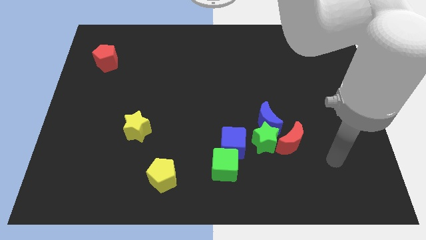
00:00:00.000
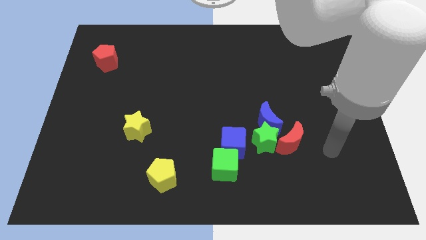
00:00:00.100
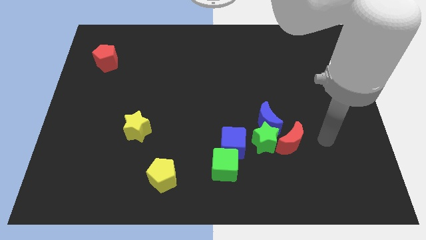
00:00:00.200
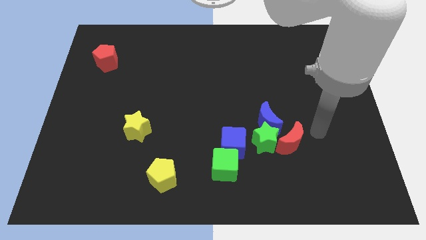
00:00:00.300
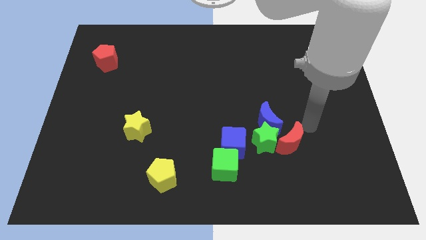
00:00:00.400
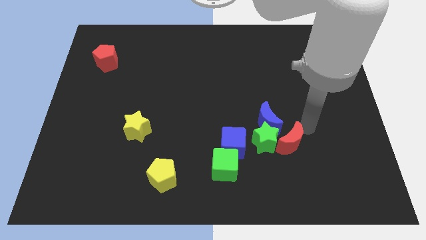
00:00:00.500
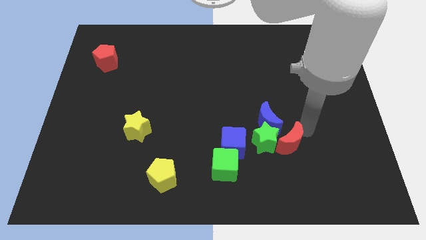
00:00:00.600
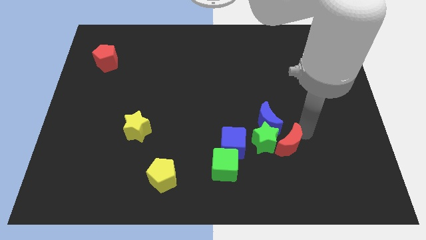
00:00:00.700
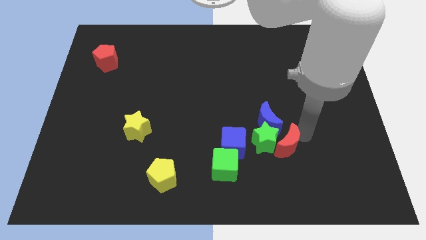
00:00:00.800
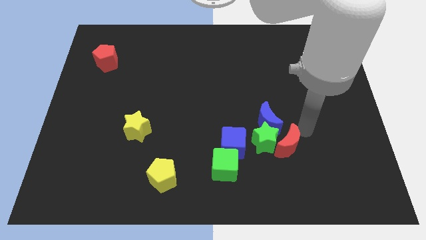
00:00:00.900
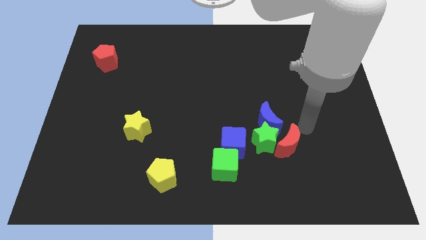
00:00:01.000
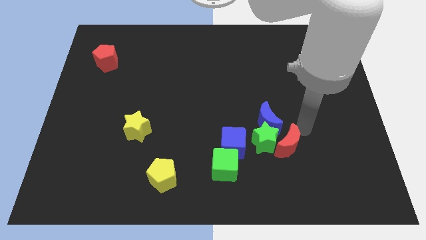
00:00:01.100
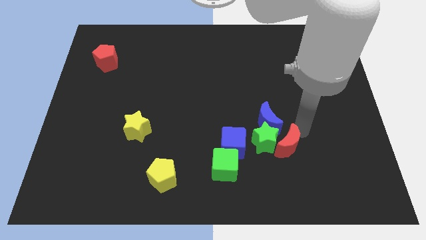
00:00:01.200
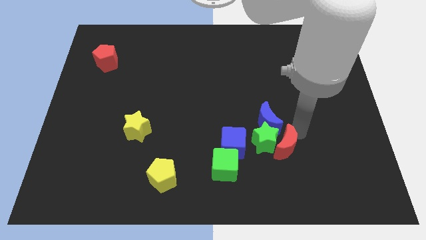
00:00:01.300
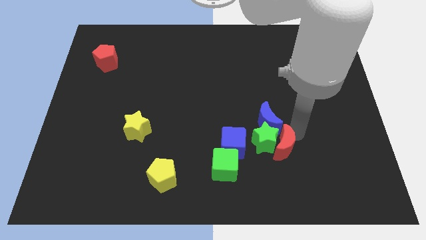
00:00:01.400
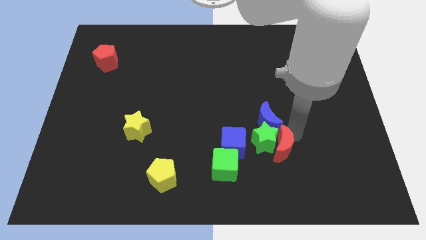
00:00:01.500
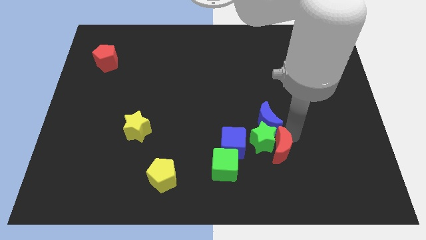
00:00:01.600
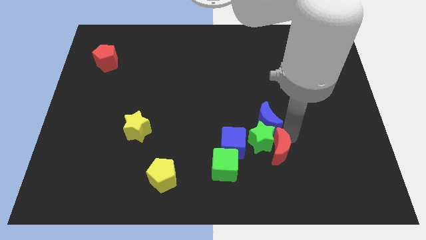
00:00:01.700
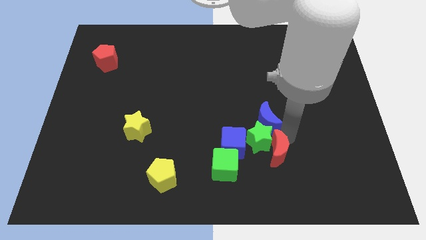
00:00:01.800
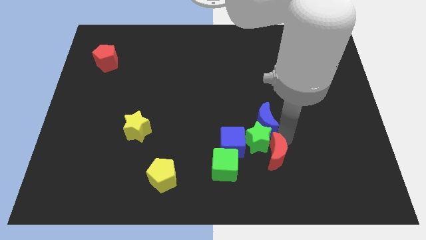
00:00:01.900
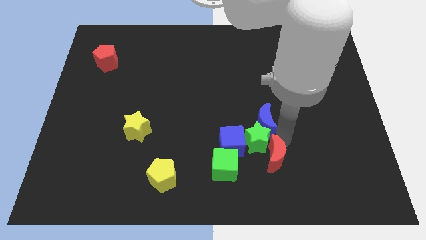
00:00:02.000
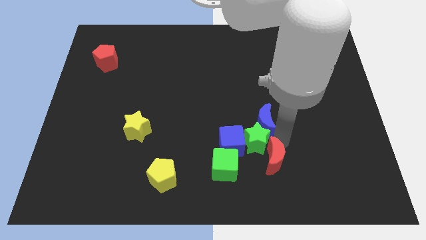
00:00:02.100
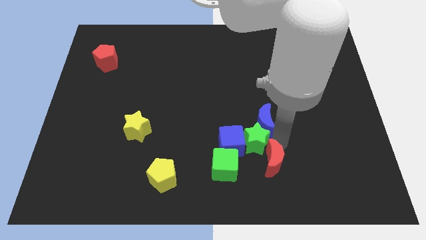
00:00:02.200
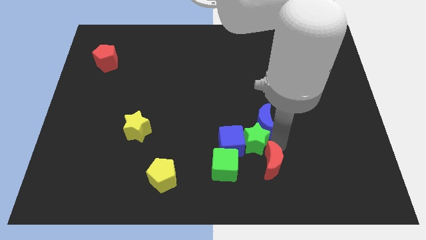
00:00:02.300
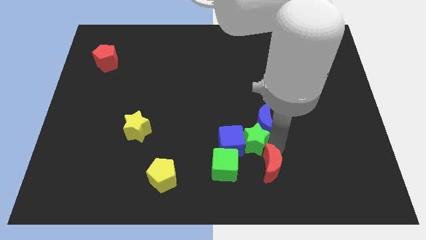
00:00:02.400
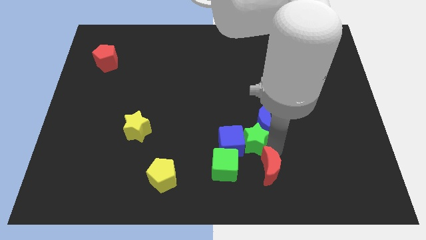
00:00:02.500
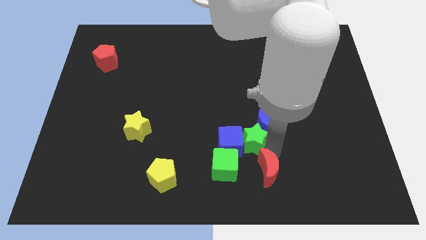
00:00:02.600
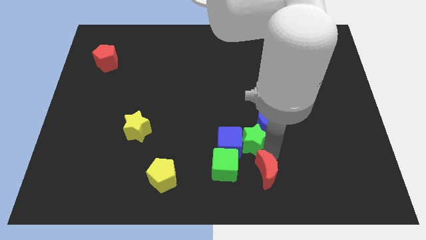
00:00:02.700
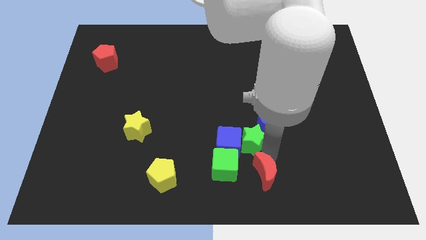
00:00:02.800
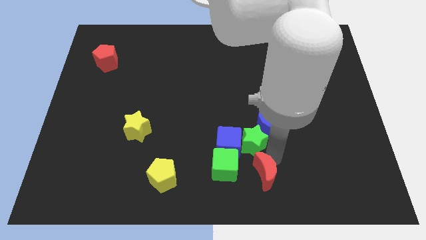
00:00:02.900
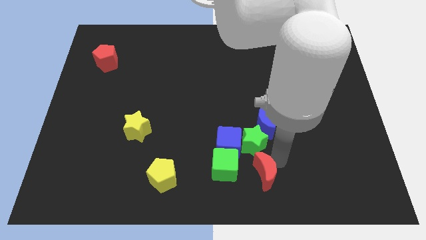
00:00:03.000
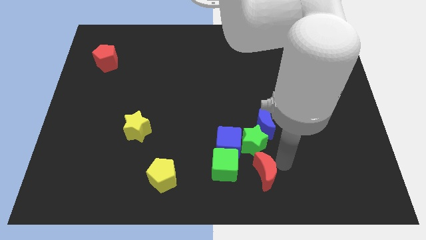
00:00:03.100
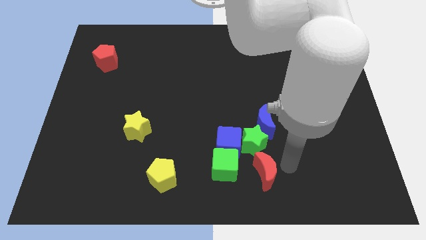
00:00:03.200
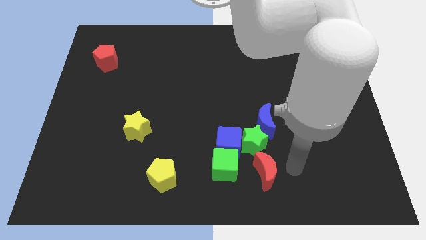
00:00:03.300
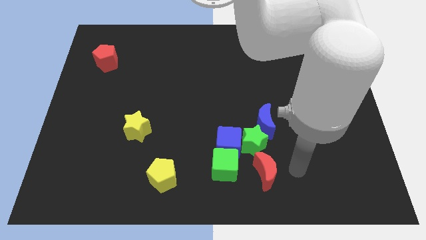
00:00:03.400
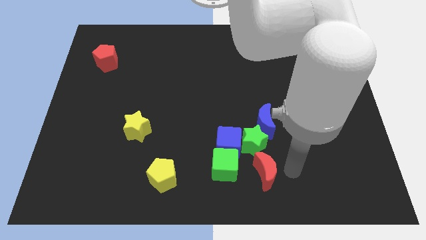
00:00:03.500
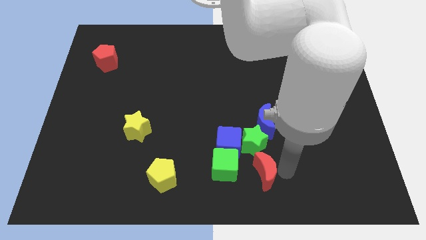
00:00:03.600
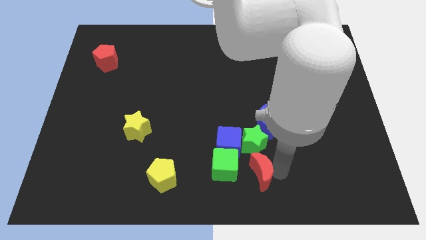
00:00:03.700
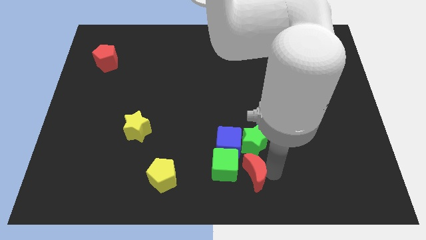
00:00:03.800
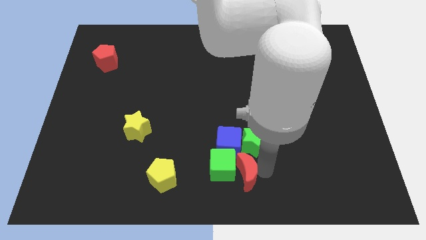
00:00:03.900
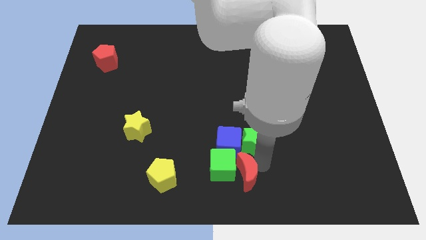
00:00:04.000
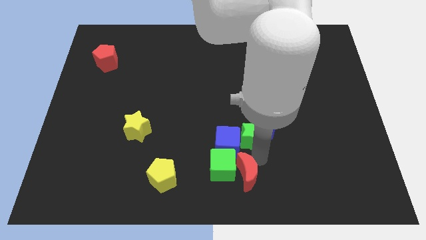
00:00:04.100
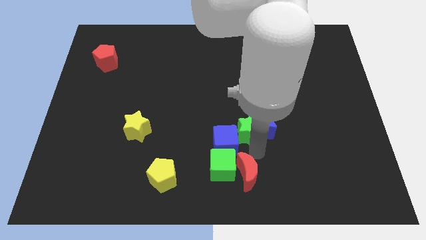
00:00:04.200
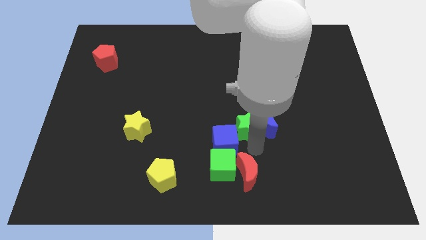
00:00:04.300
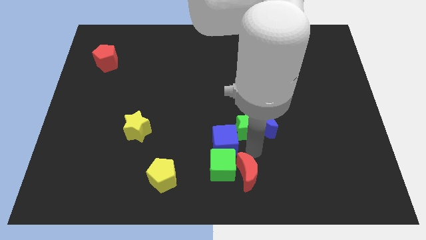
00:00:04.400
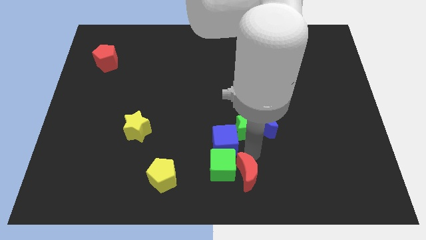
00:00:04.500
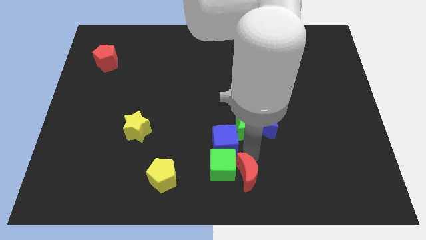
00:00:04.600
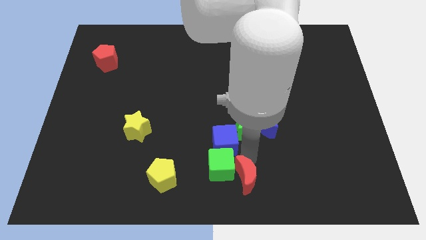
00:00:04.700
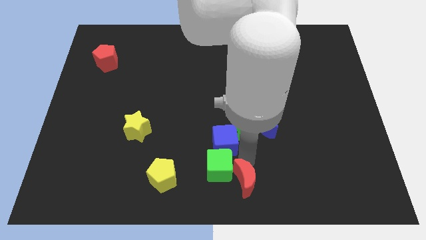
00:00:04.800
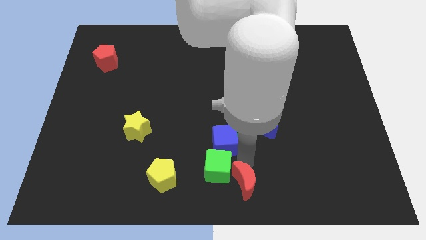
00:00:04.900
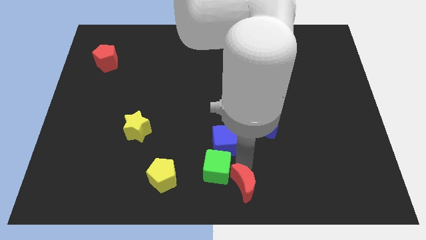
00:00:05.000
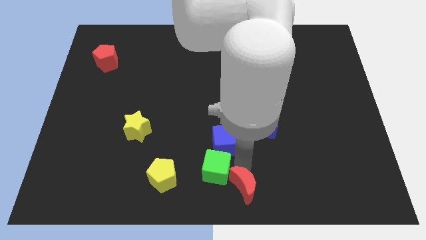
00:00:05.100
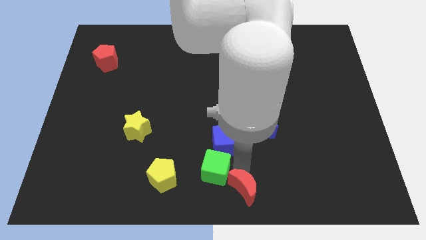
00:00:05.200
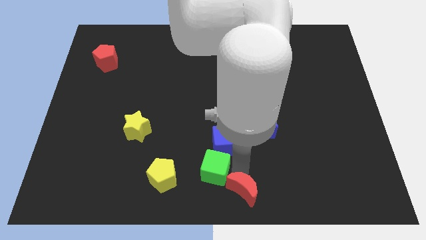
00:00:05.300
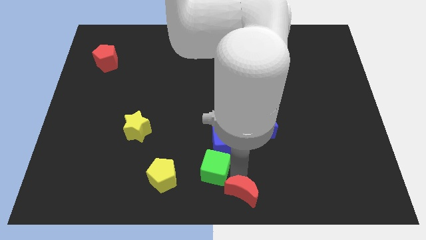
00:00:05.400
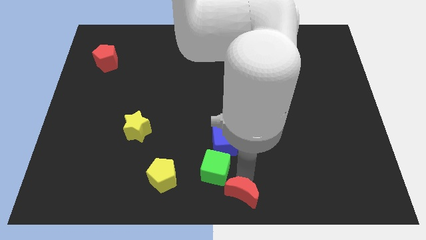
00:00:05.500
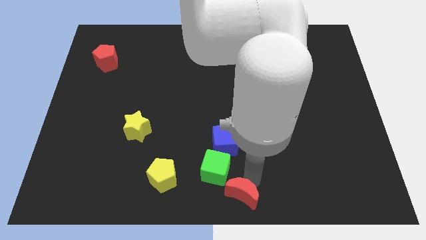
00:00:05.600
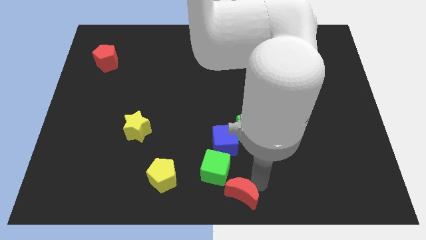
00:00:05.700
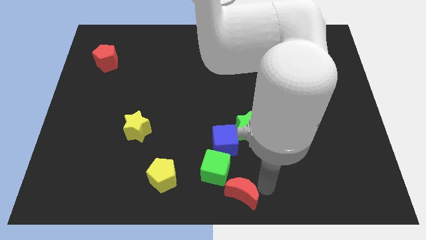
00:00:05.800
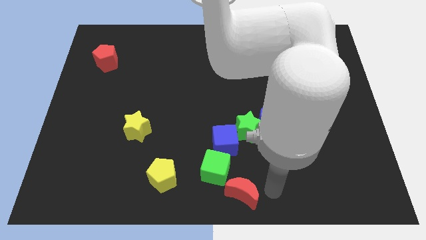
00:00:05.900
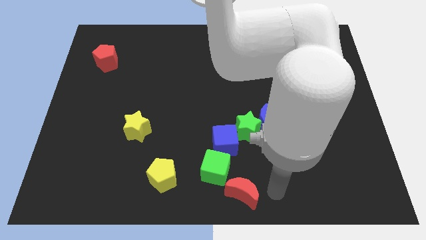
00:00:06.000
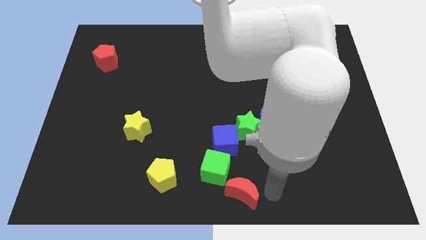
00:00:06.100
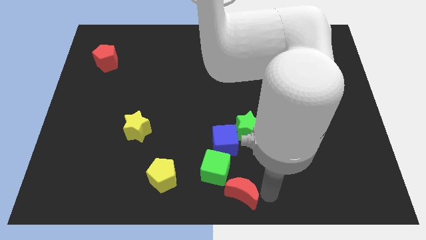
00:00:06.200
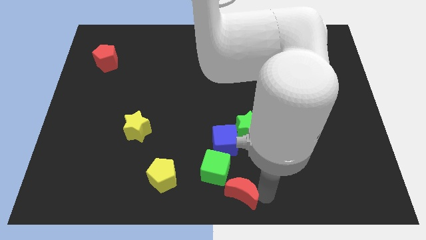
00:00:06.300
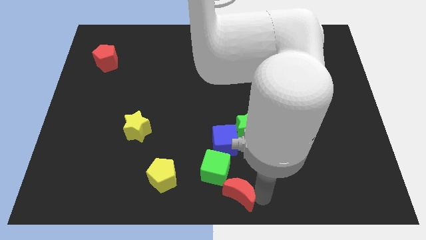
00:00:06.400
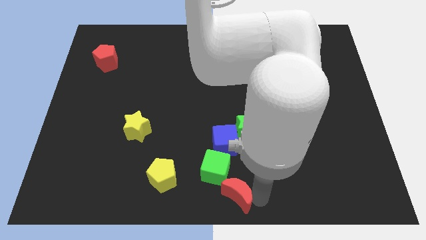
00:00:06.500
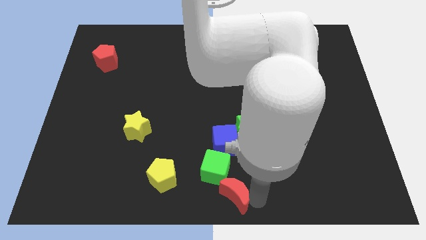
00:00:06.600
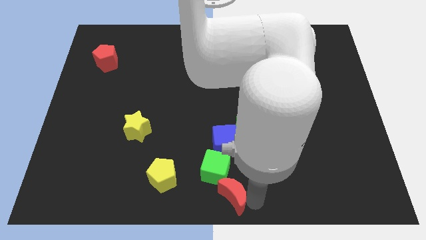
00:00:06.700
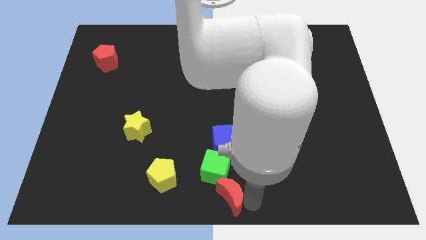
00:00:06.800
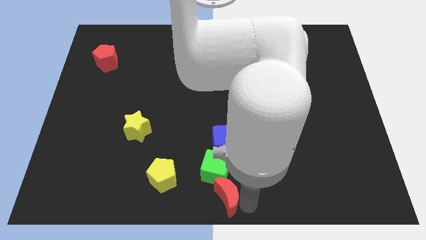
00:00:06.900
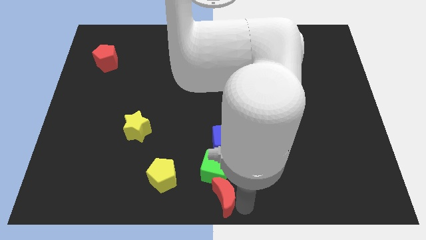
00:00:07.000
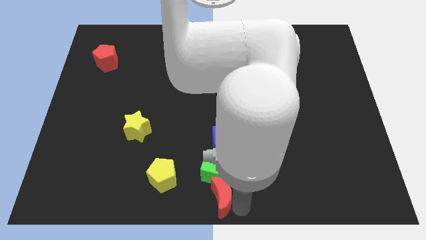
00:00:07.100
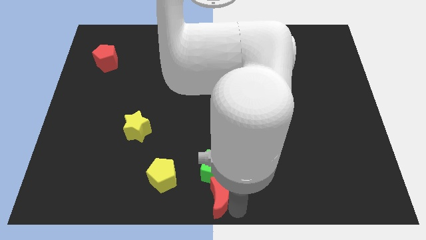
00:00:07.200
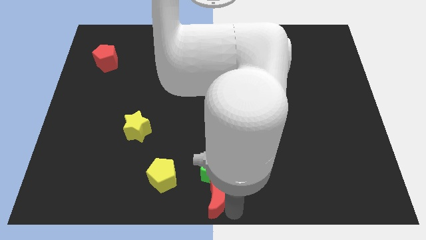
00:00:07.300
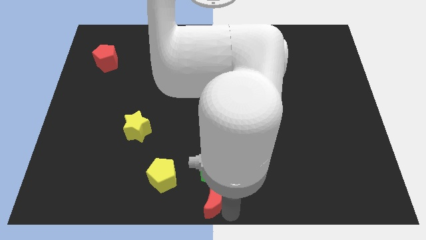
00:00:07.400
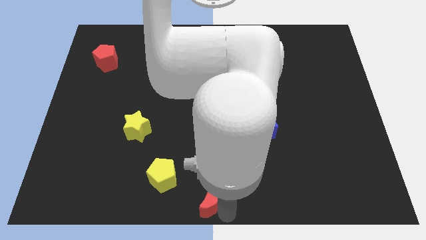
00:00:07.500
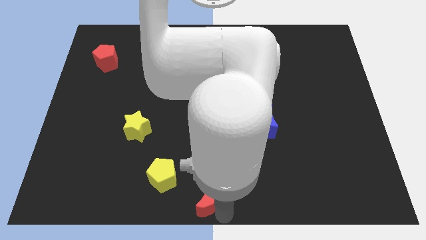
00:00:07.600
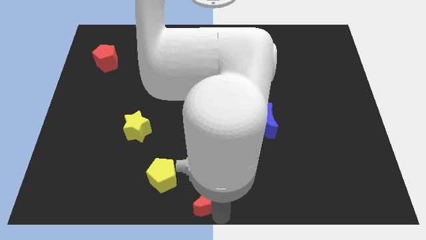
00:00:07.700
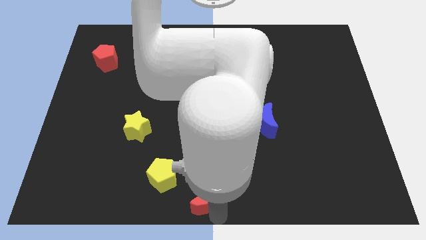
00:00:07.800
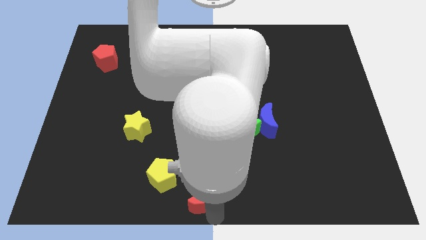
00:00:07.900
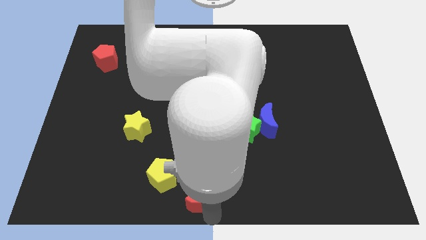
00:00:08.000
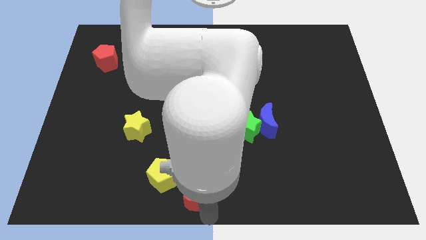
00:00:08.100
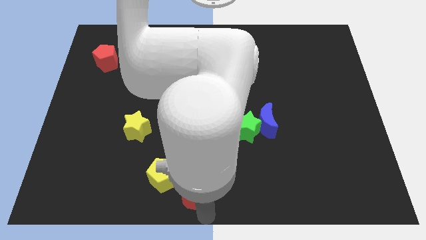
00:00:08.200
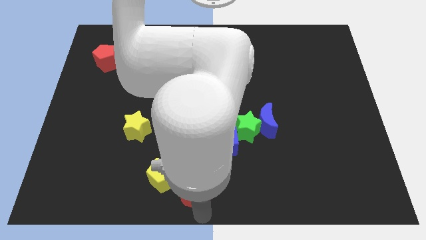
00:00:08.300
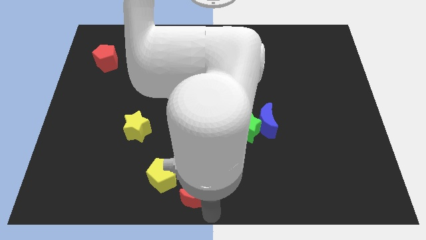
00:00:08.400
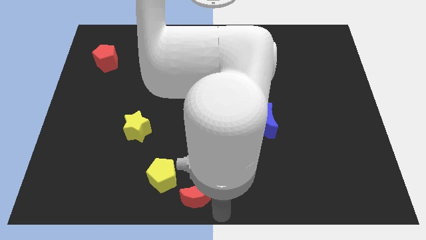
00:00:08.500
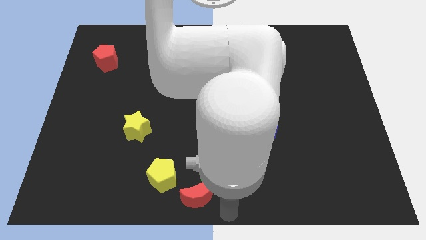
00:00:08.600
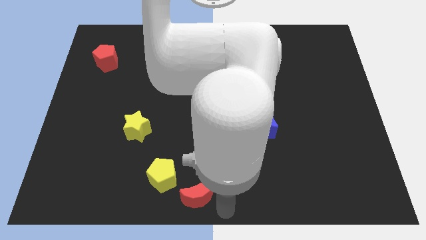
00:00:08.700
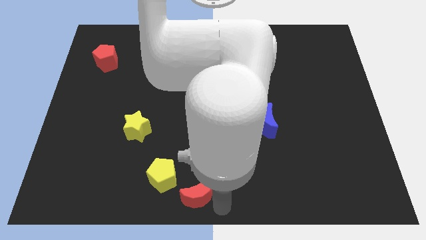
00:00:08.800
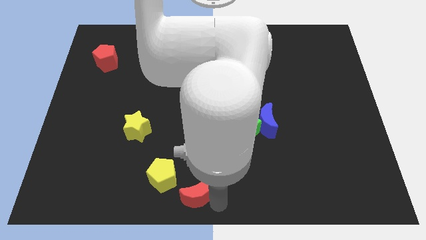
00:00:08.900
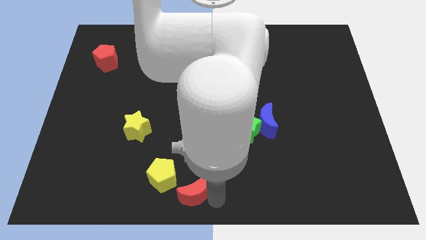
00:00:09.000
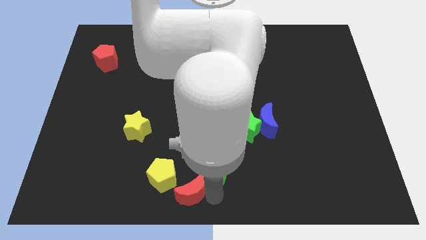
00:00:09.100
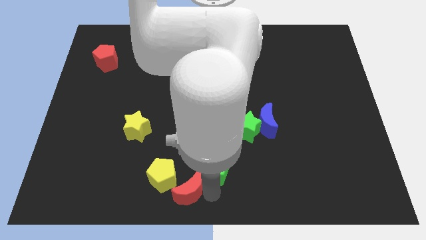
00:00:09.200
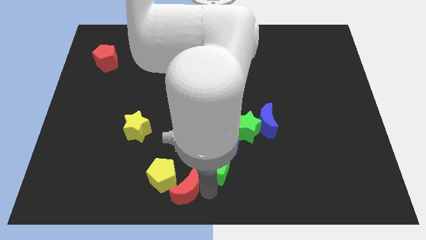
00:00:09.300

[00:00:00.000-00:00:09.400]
push the red moon towards the yellow pentagon
